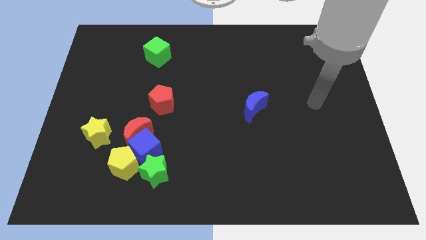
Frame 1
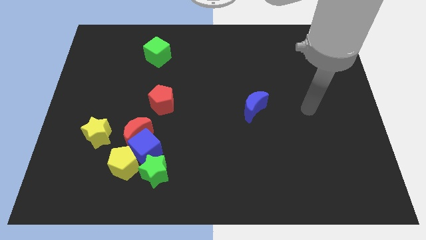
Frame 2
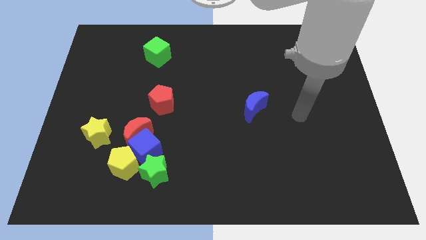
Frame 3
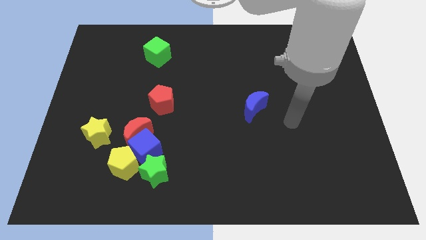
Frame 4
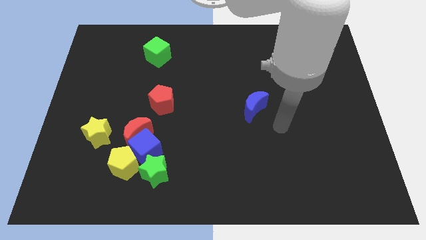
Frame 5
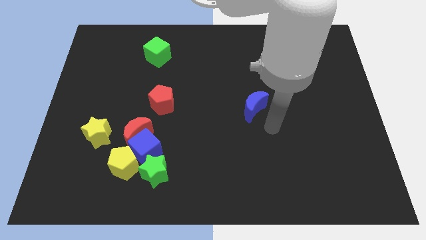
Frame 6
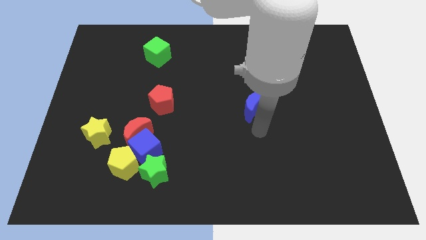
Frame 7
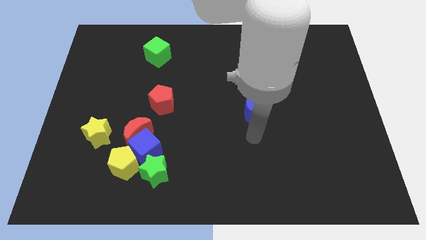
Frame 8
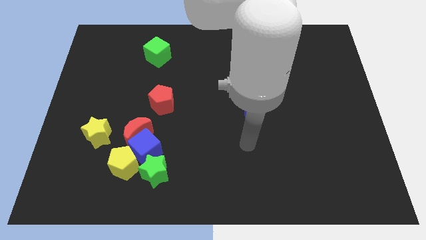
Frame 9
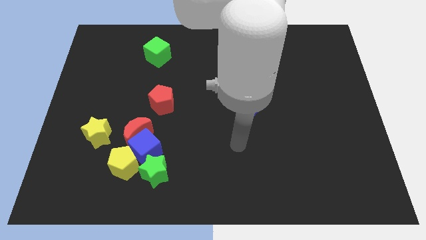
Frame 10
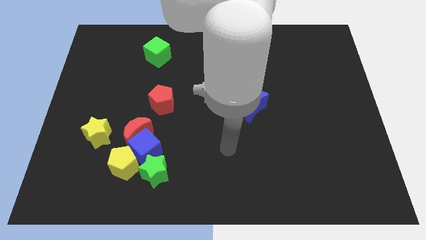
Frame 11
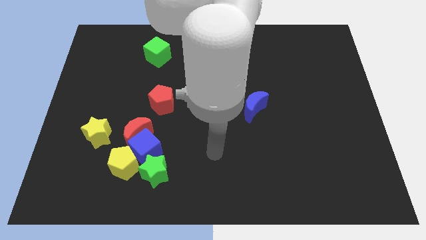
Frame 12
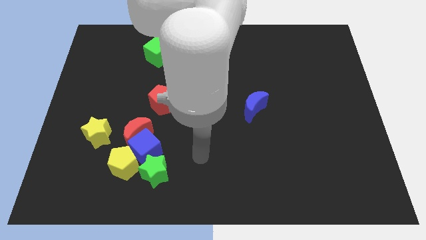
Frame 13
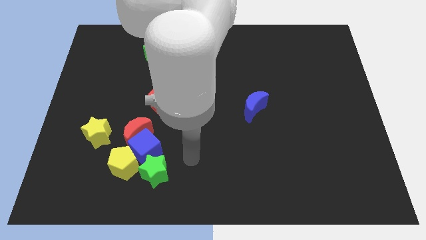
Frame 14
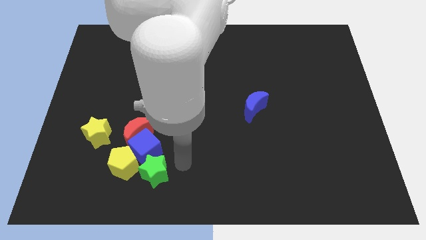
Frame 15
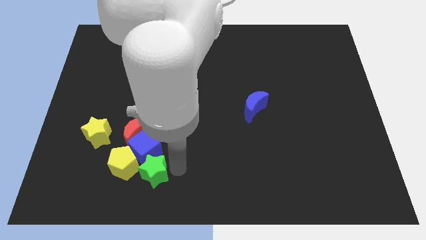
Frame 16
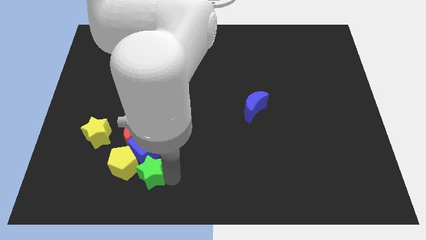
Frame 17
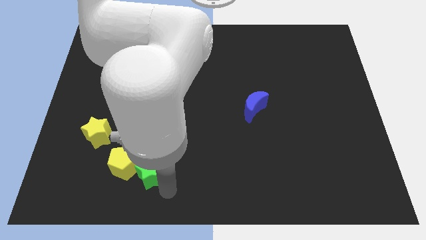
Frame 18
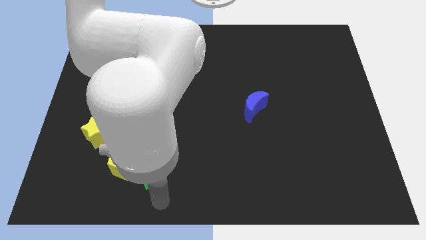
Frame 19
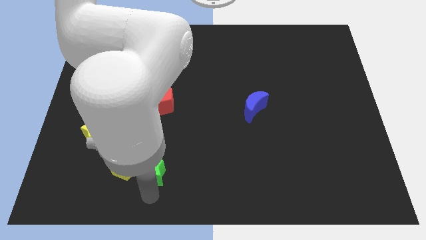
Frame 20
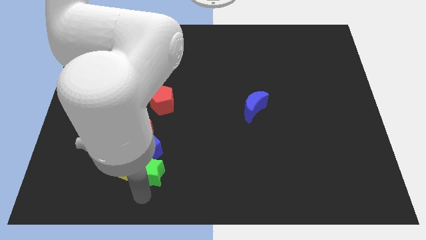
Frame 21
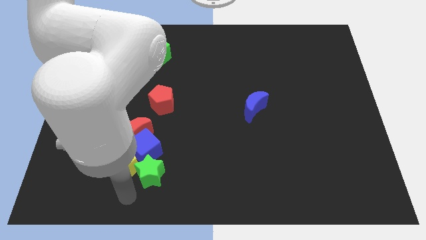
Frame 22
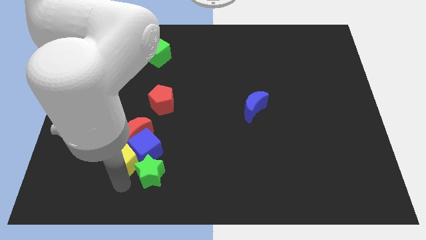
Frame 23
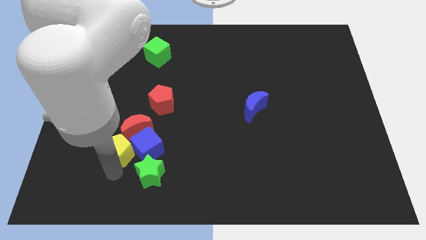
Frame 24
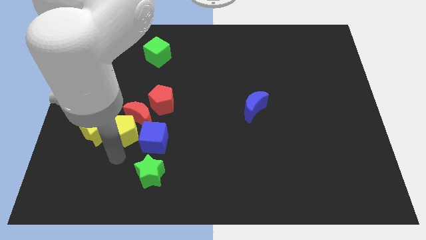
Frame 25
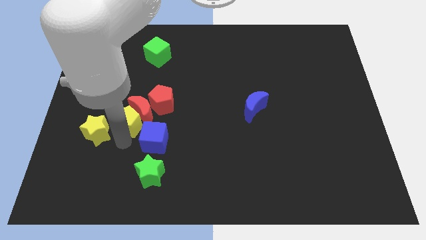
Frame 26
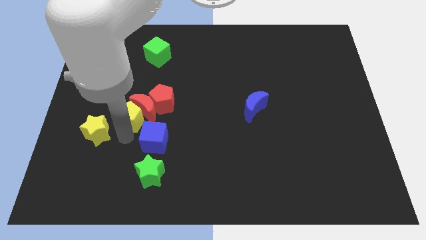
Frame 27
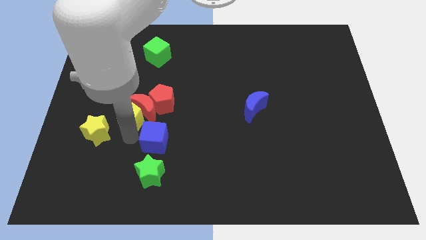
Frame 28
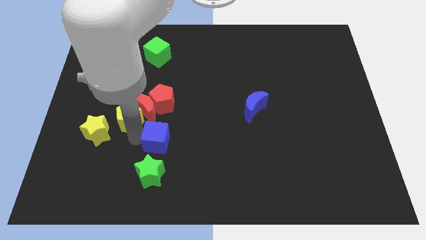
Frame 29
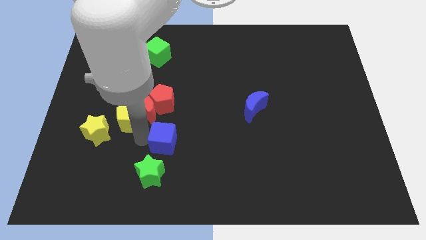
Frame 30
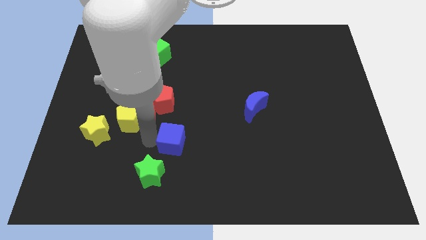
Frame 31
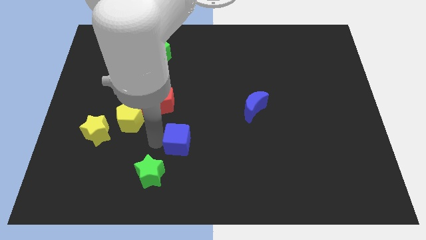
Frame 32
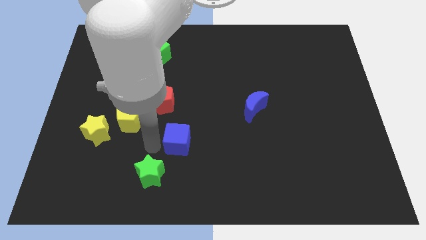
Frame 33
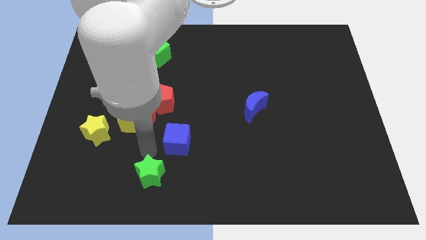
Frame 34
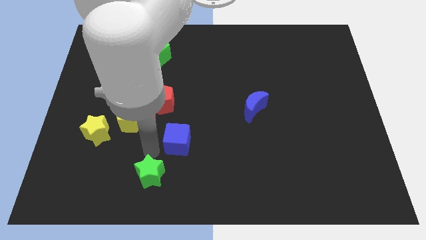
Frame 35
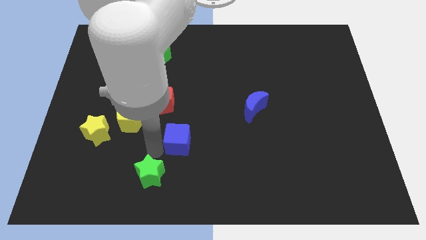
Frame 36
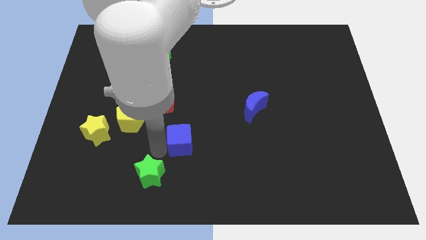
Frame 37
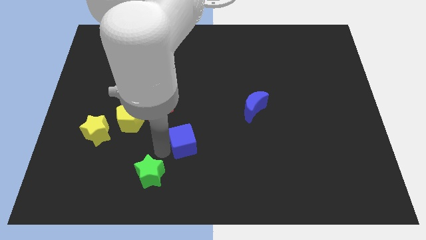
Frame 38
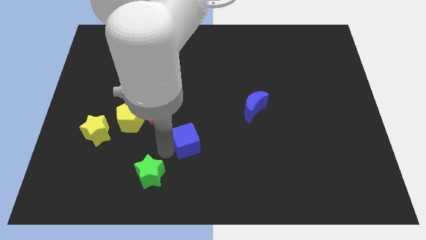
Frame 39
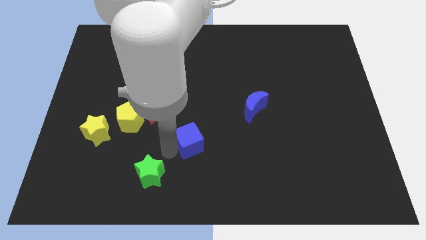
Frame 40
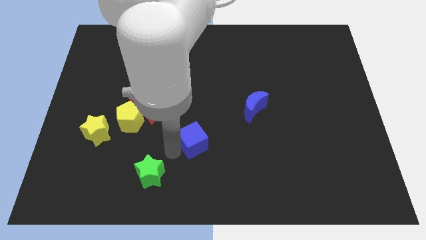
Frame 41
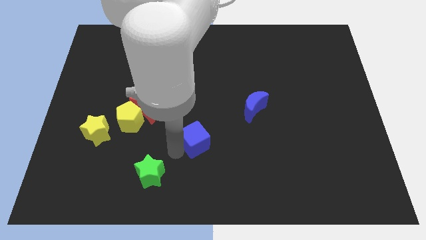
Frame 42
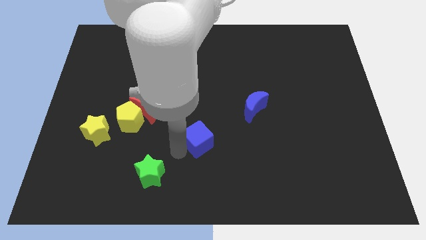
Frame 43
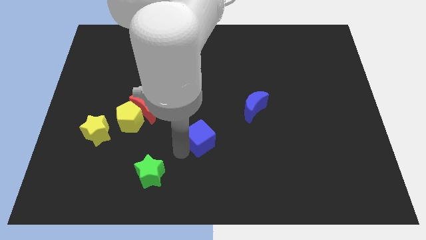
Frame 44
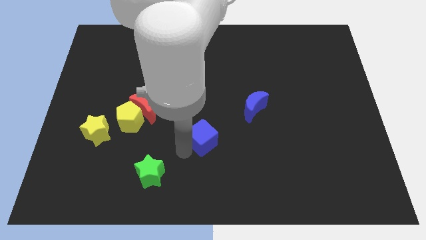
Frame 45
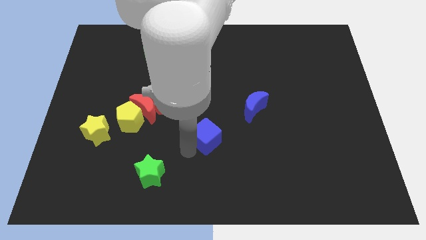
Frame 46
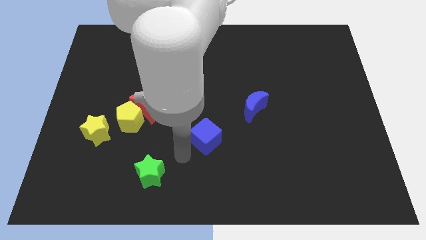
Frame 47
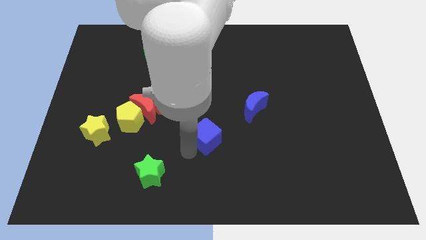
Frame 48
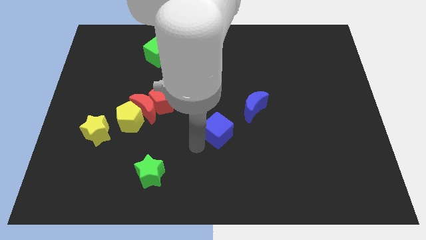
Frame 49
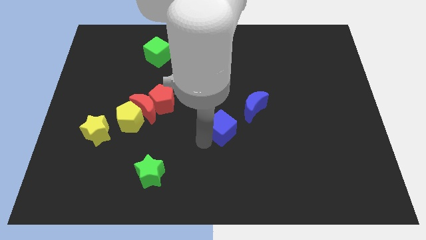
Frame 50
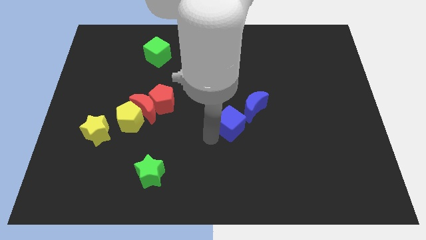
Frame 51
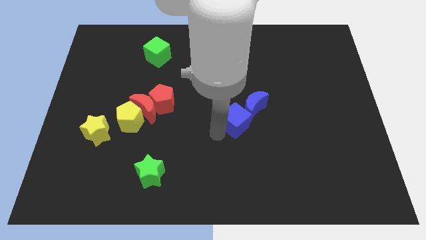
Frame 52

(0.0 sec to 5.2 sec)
slide the blue cube towards the blue moon

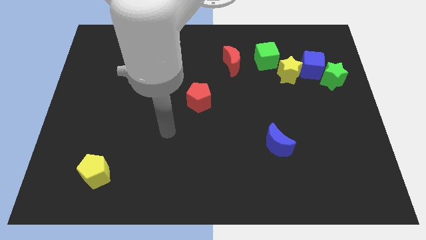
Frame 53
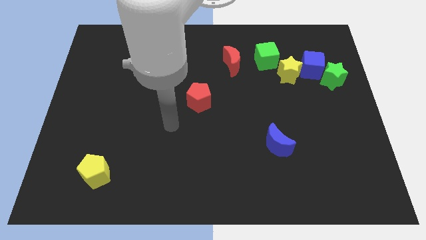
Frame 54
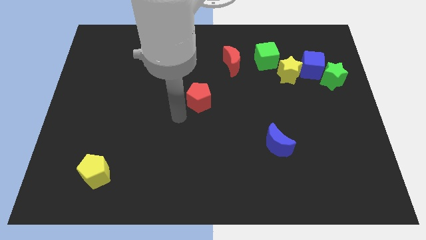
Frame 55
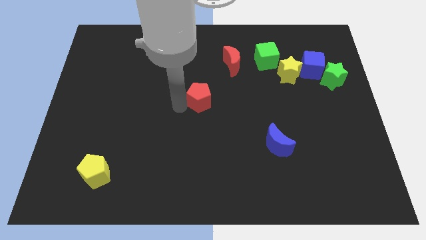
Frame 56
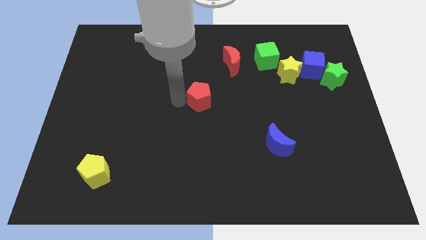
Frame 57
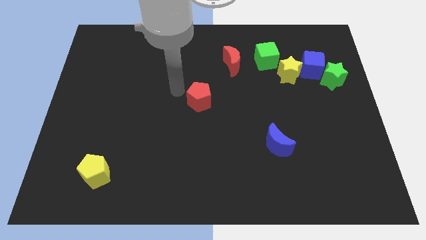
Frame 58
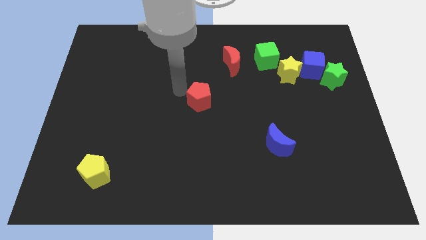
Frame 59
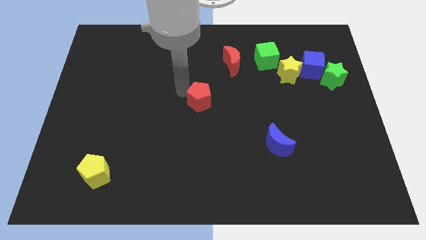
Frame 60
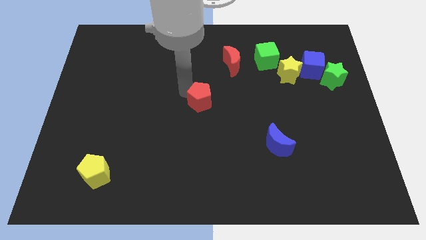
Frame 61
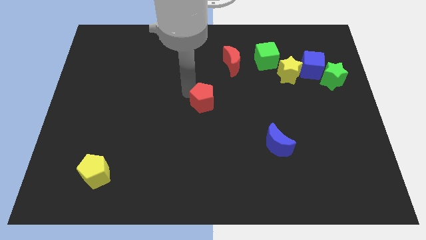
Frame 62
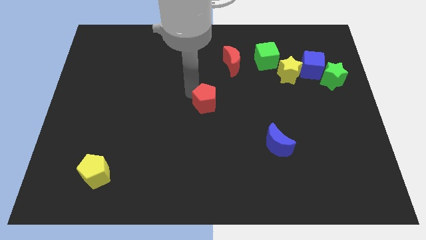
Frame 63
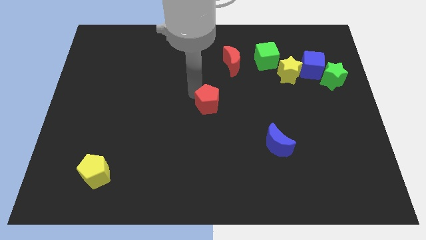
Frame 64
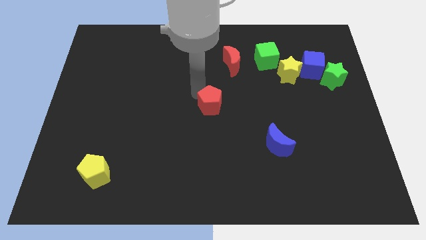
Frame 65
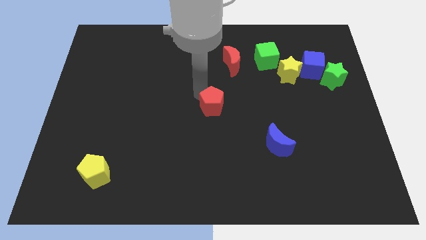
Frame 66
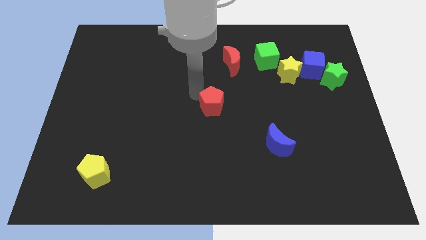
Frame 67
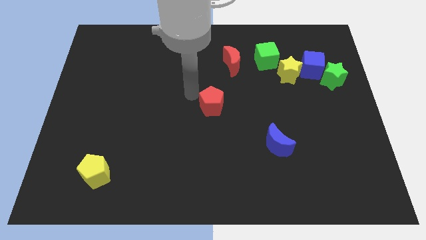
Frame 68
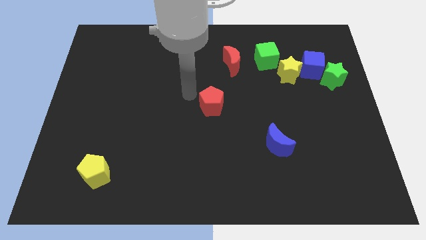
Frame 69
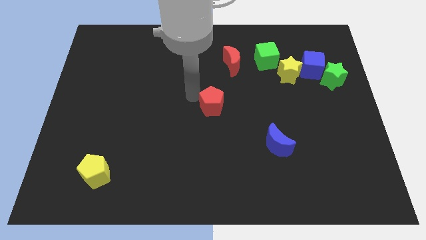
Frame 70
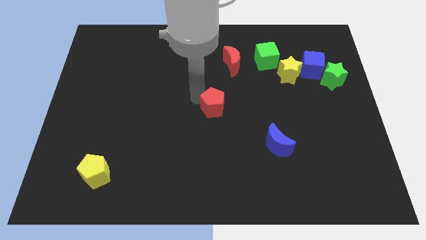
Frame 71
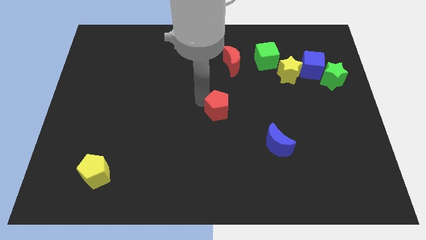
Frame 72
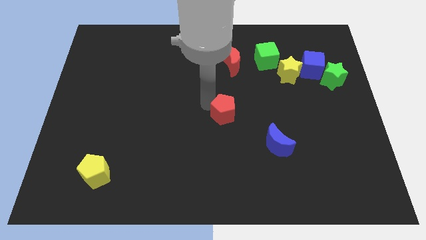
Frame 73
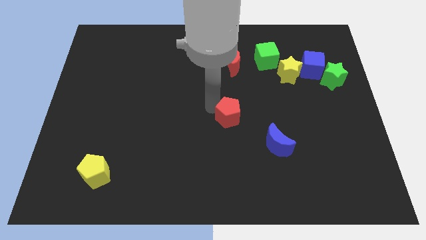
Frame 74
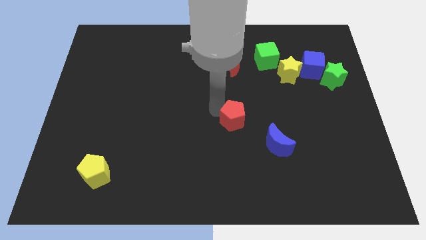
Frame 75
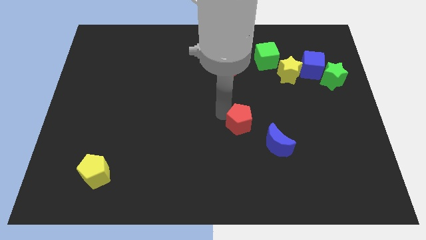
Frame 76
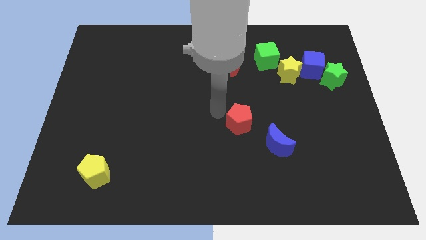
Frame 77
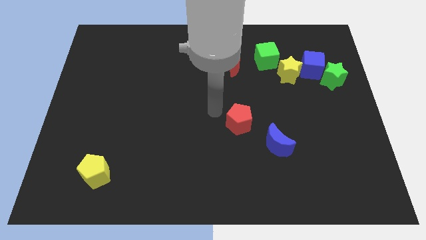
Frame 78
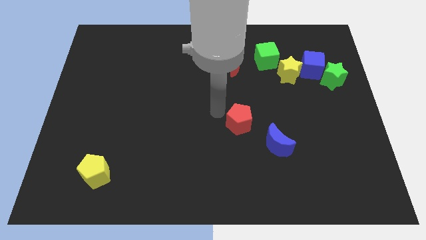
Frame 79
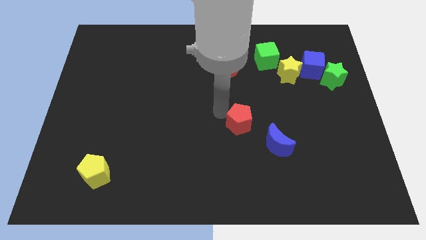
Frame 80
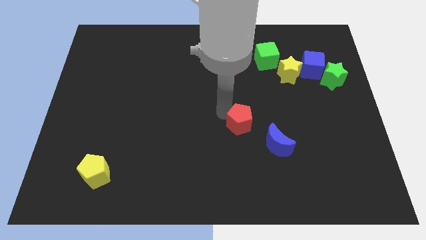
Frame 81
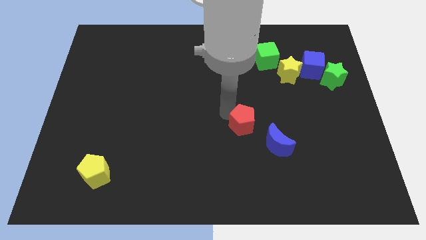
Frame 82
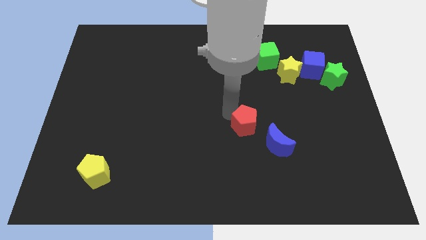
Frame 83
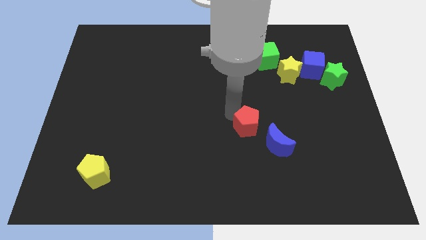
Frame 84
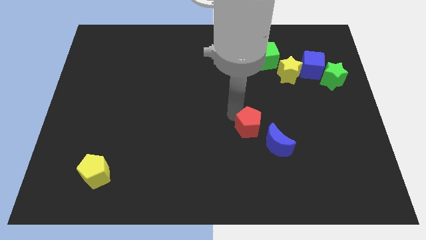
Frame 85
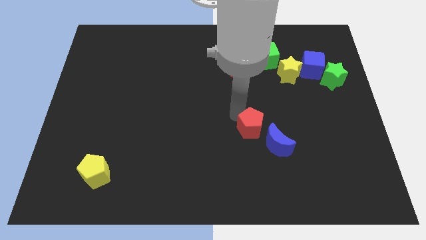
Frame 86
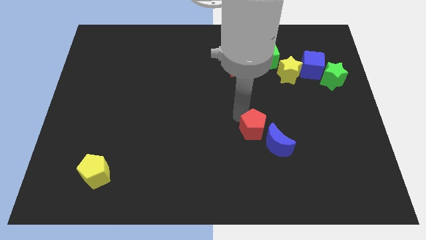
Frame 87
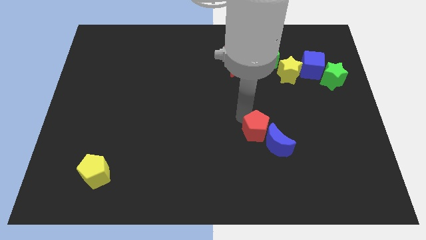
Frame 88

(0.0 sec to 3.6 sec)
slide the red pentagon to the blue moon
